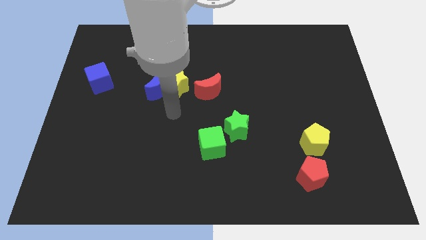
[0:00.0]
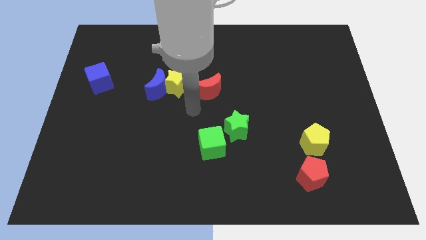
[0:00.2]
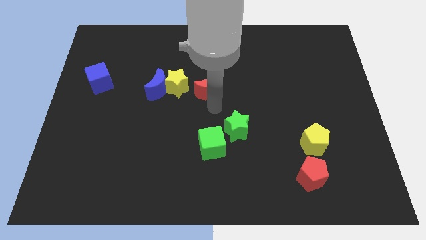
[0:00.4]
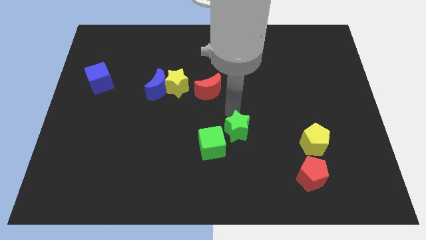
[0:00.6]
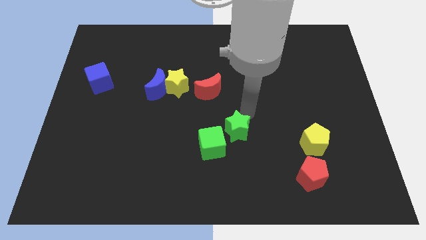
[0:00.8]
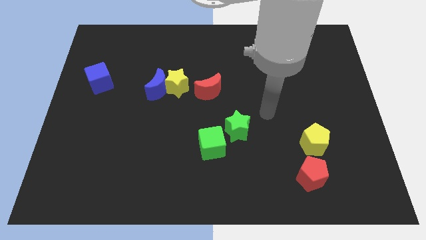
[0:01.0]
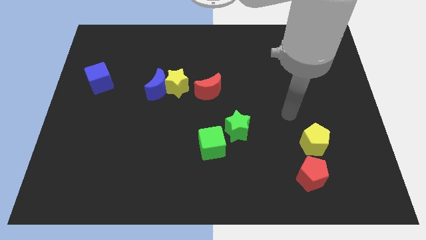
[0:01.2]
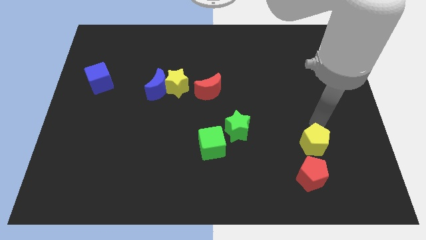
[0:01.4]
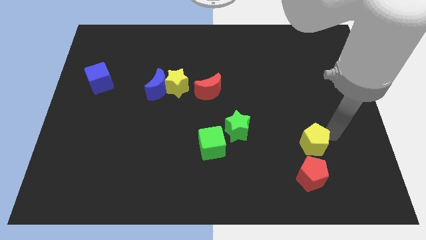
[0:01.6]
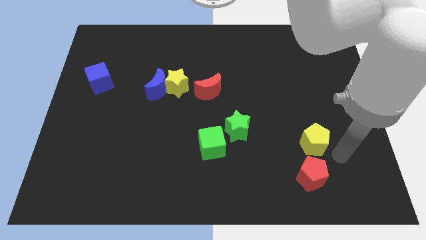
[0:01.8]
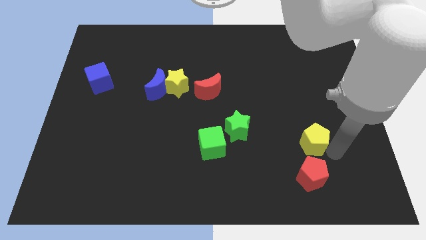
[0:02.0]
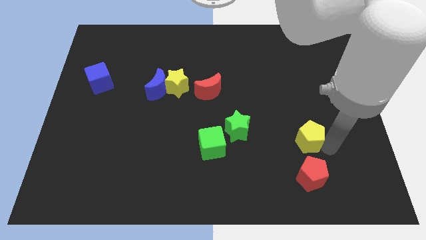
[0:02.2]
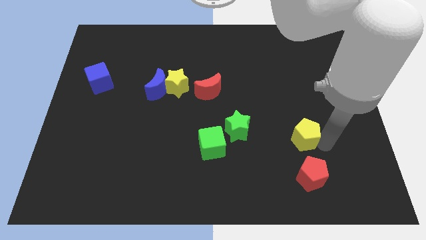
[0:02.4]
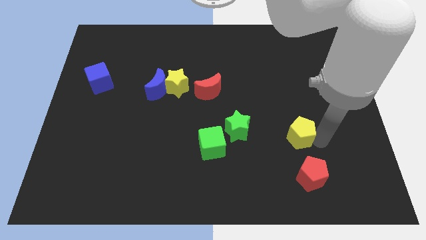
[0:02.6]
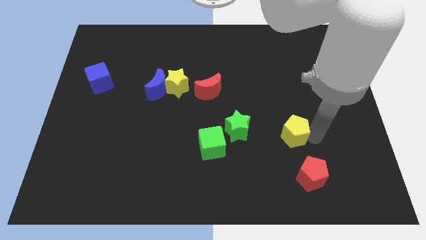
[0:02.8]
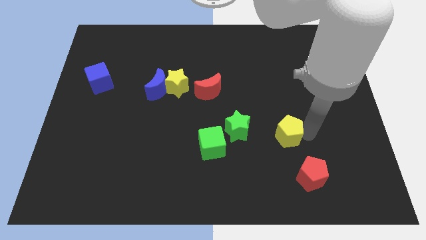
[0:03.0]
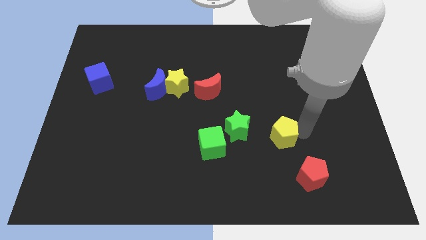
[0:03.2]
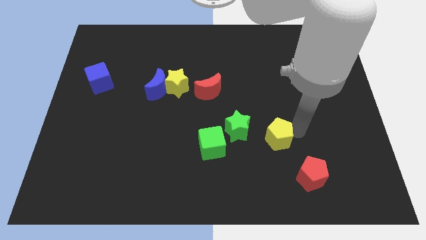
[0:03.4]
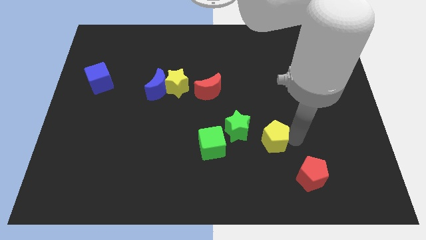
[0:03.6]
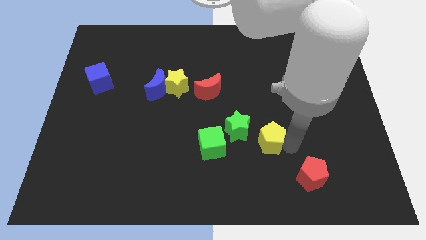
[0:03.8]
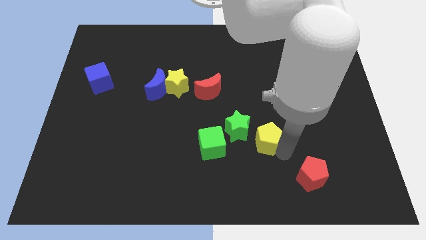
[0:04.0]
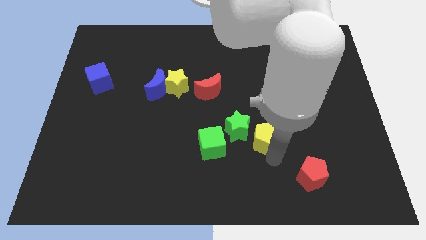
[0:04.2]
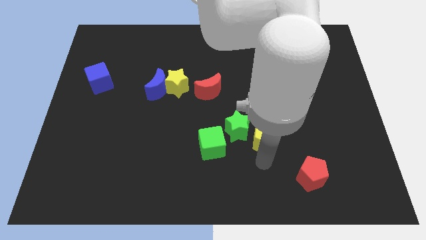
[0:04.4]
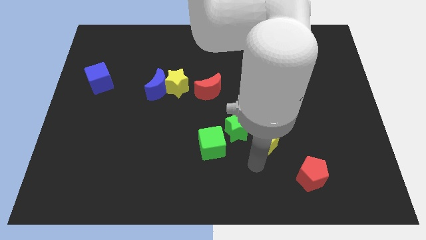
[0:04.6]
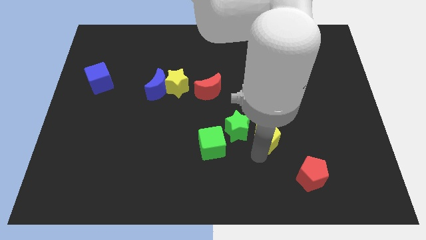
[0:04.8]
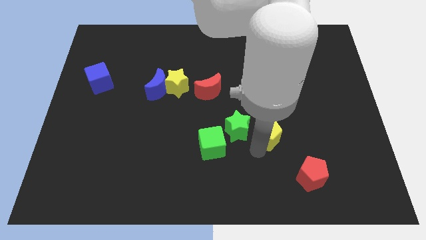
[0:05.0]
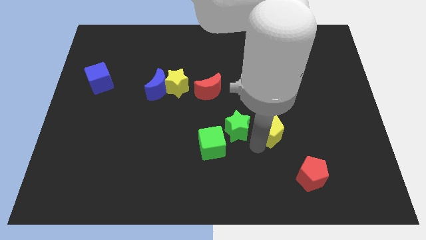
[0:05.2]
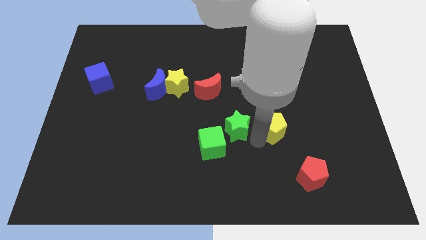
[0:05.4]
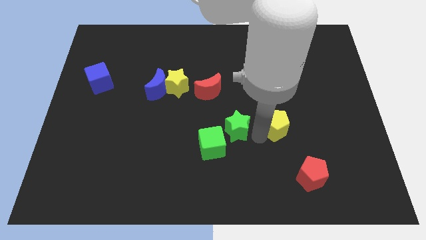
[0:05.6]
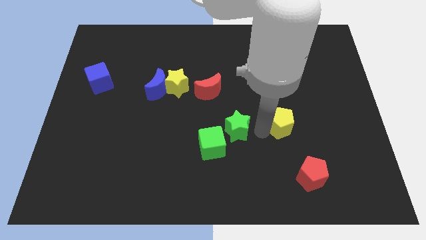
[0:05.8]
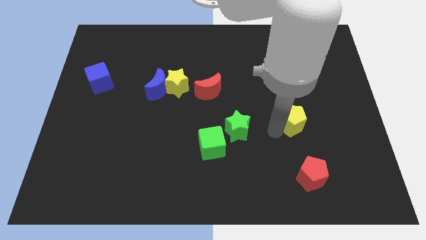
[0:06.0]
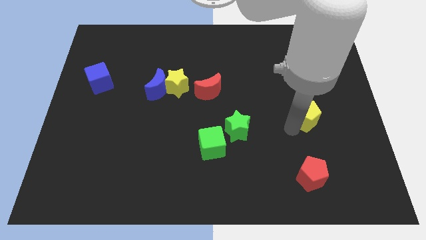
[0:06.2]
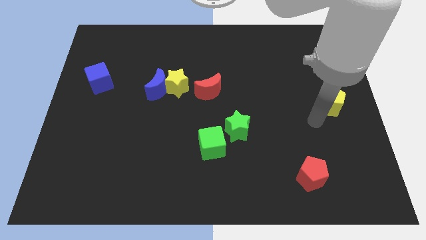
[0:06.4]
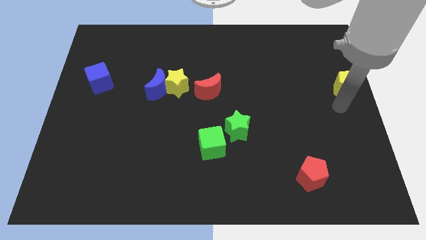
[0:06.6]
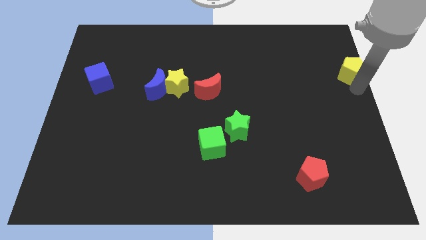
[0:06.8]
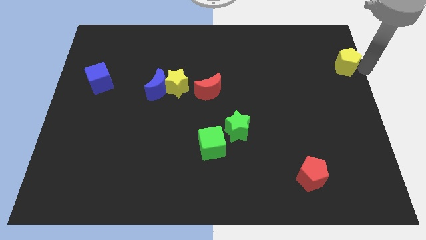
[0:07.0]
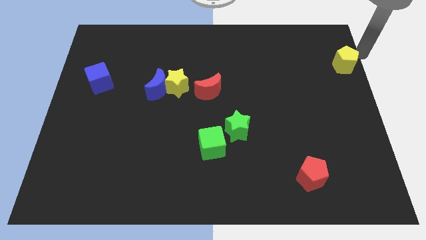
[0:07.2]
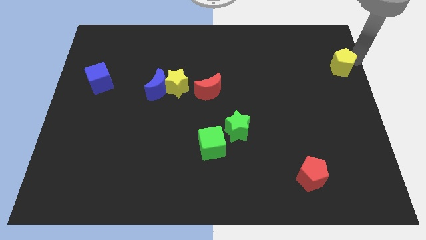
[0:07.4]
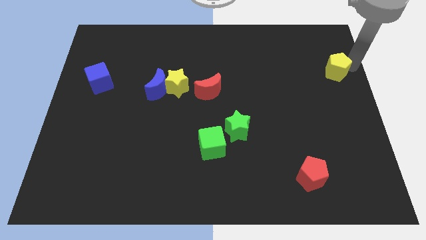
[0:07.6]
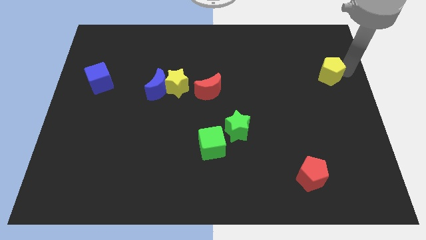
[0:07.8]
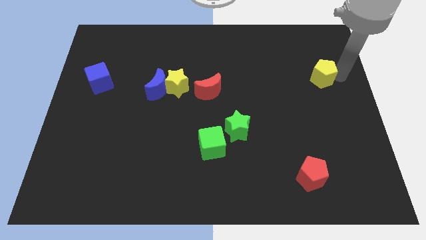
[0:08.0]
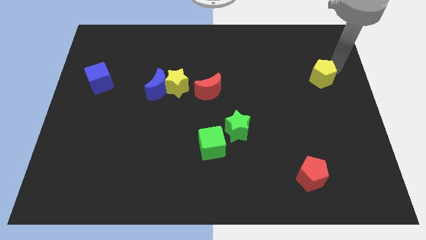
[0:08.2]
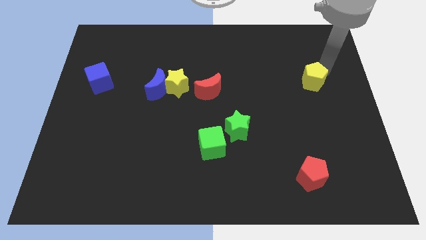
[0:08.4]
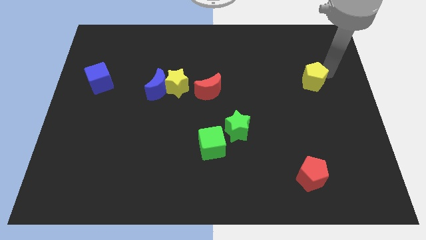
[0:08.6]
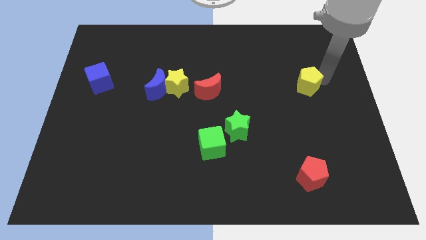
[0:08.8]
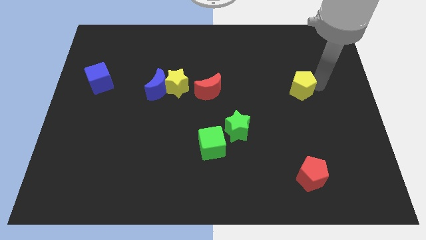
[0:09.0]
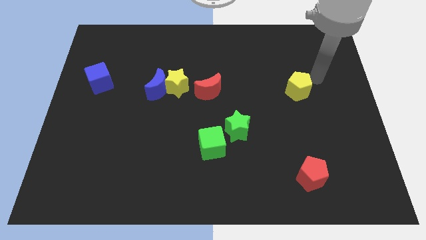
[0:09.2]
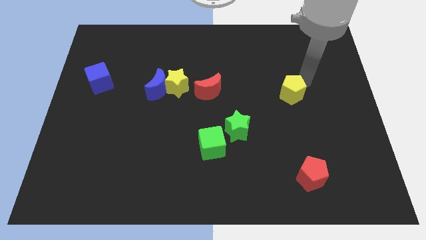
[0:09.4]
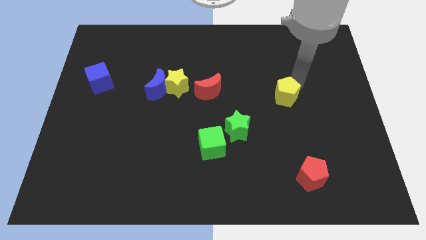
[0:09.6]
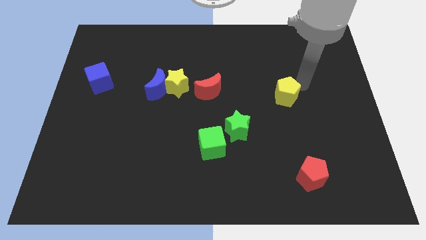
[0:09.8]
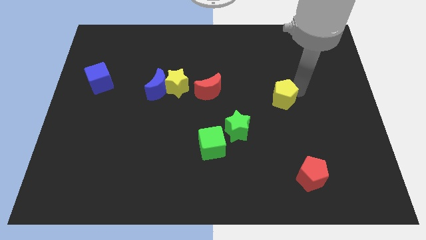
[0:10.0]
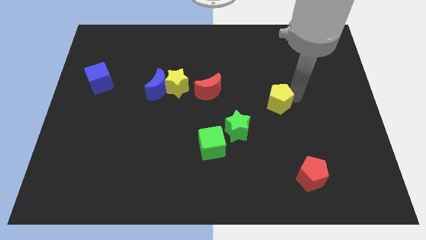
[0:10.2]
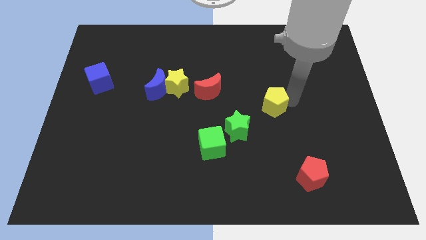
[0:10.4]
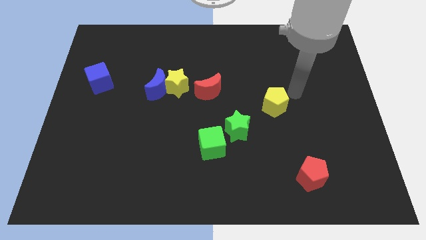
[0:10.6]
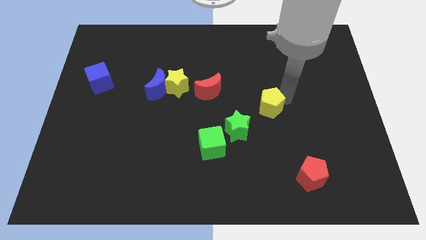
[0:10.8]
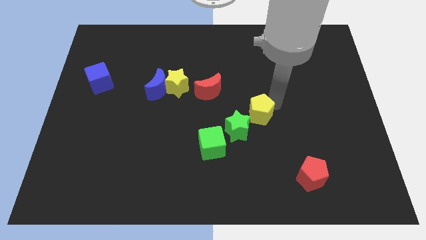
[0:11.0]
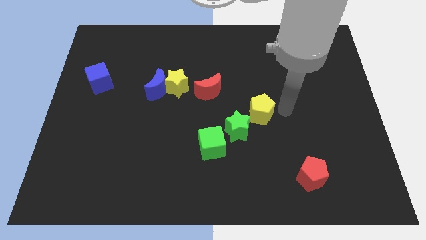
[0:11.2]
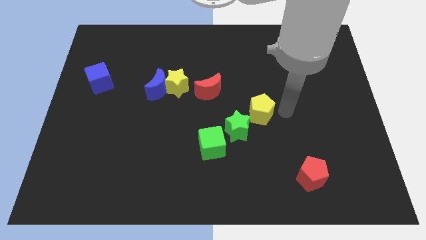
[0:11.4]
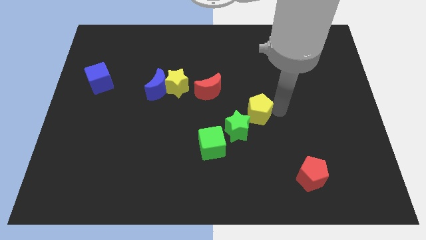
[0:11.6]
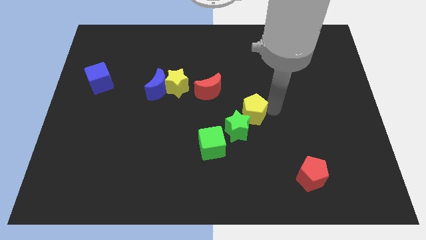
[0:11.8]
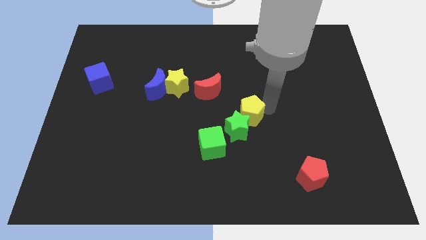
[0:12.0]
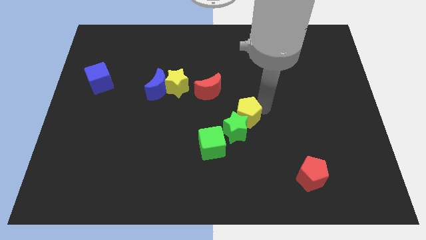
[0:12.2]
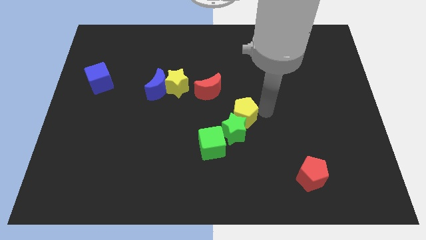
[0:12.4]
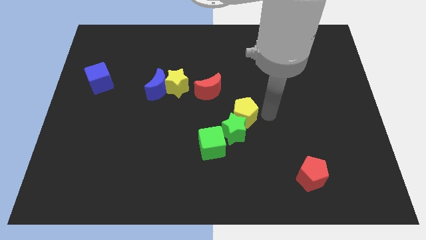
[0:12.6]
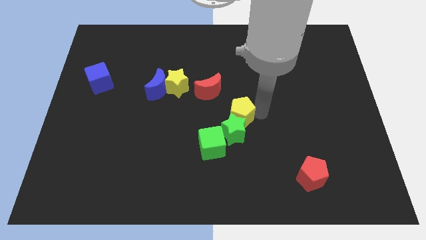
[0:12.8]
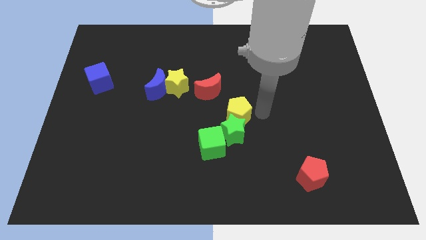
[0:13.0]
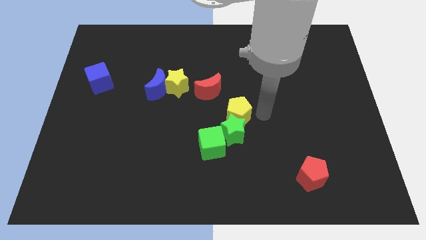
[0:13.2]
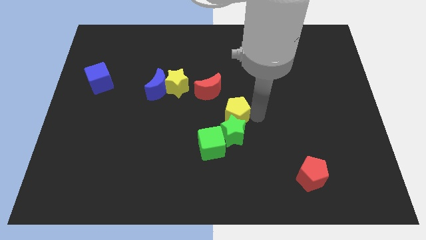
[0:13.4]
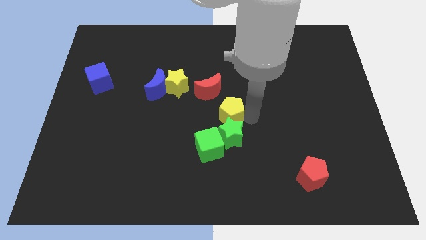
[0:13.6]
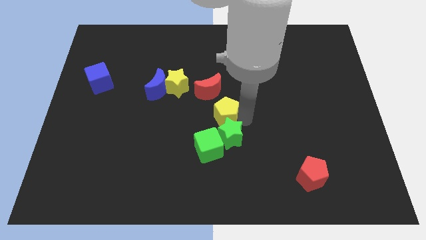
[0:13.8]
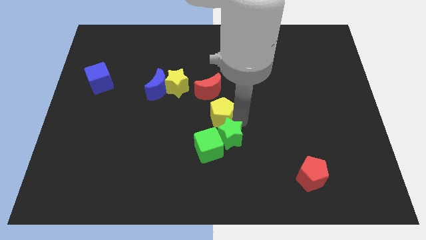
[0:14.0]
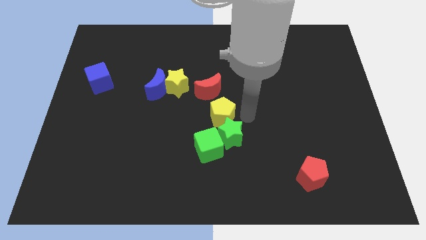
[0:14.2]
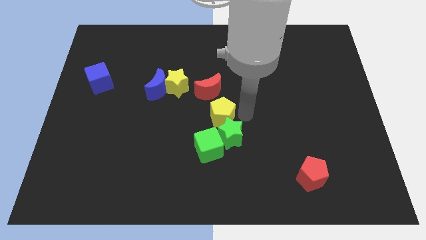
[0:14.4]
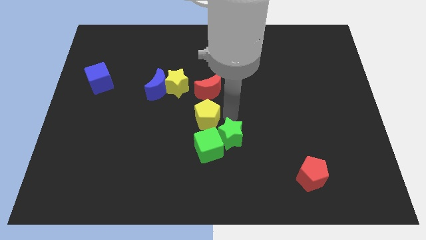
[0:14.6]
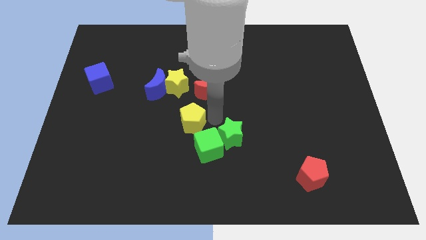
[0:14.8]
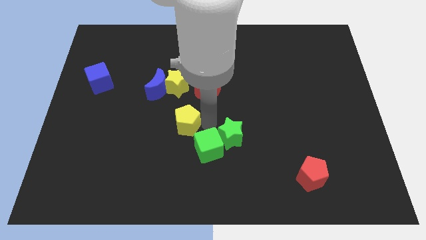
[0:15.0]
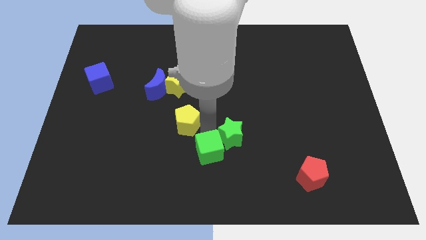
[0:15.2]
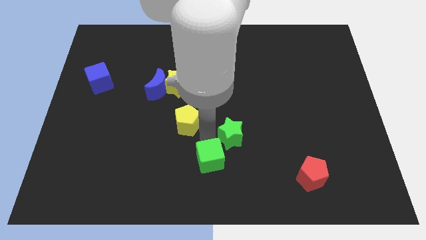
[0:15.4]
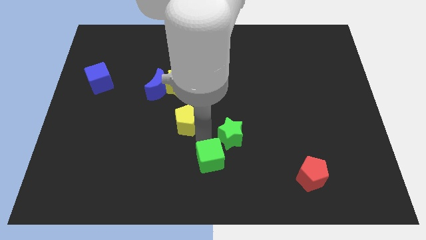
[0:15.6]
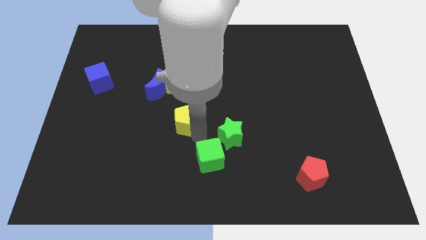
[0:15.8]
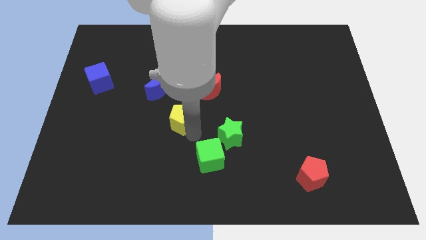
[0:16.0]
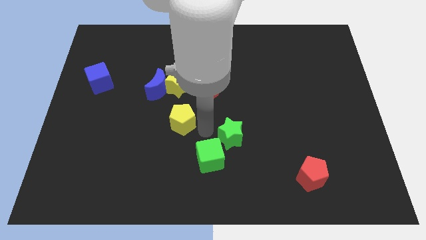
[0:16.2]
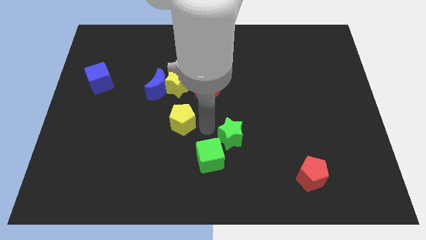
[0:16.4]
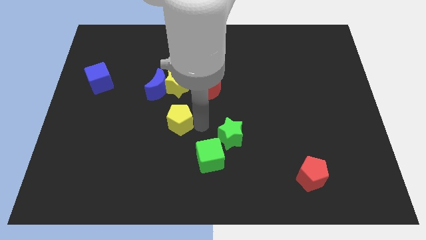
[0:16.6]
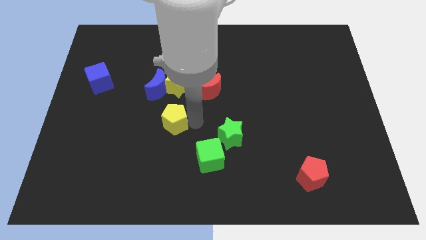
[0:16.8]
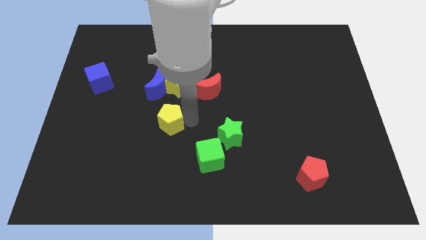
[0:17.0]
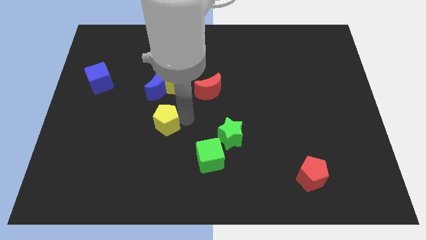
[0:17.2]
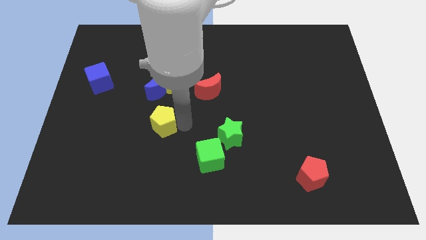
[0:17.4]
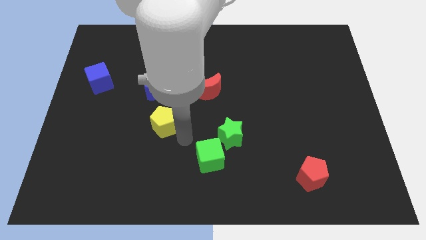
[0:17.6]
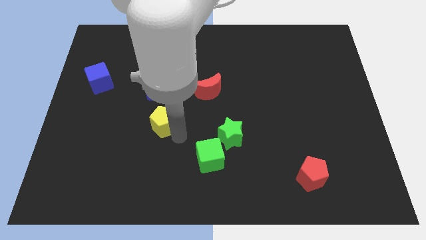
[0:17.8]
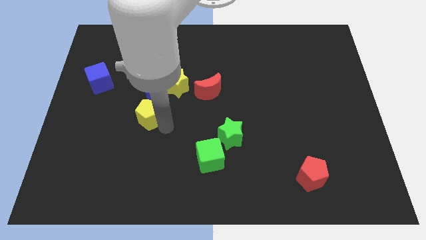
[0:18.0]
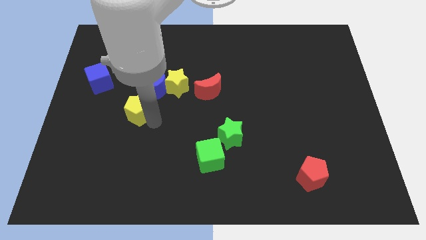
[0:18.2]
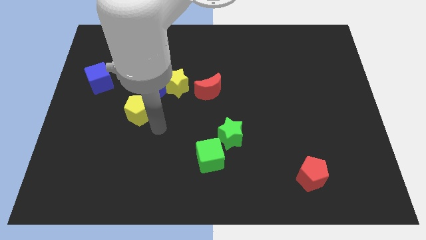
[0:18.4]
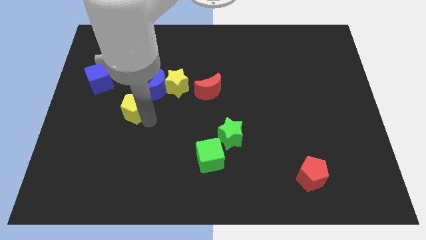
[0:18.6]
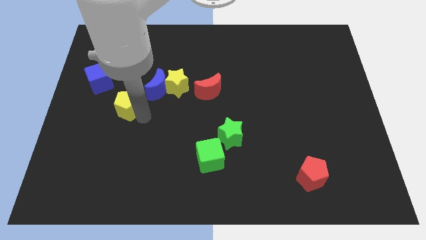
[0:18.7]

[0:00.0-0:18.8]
move the yellow pentagon to the bottom right side of the blue cube
